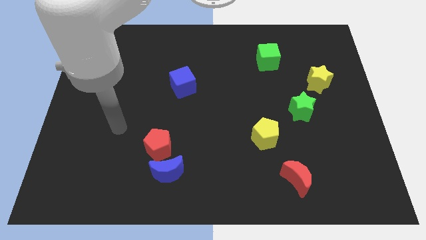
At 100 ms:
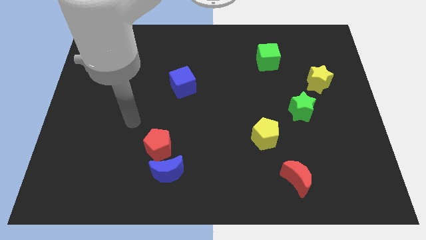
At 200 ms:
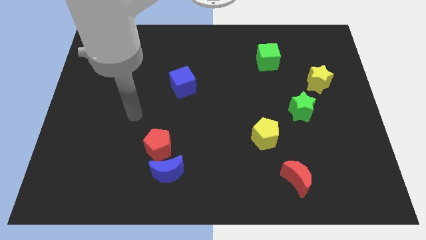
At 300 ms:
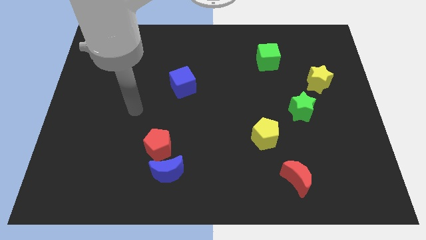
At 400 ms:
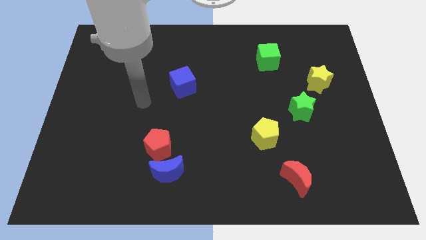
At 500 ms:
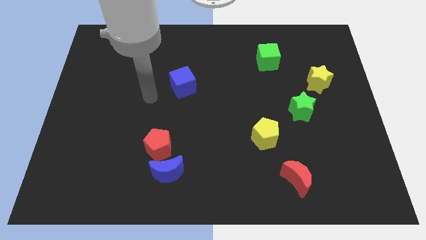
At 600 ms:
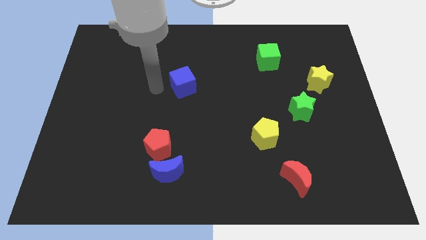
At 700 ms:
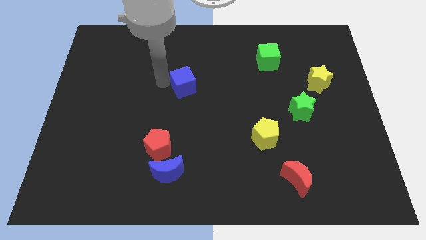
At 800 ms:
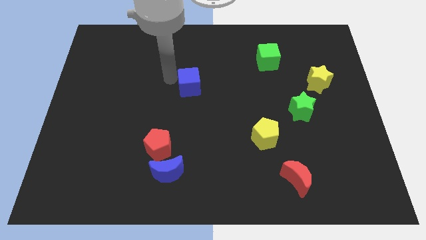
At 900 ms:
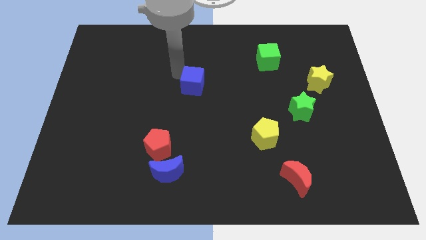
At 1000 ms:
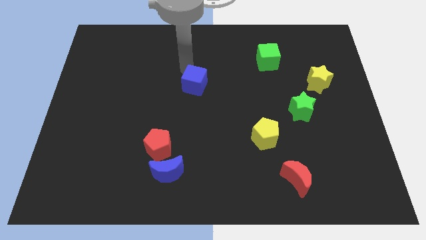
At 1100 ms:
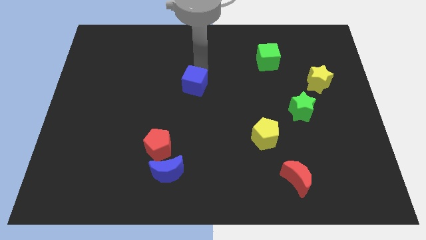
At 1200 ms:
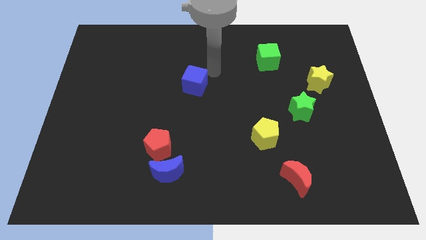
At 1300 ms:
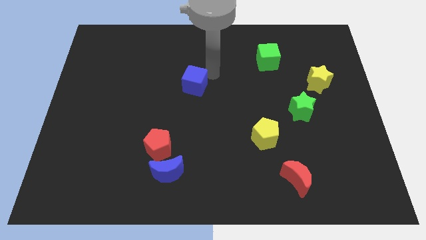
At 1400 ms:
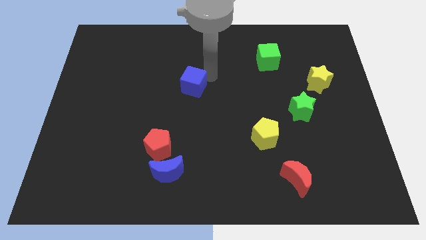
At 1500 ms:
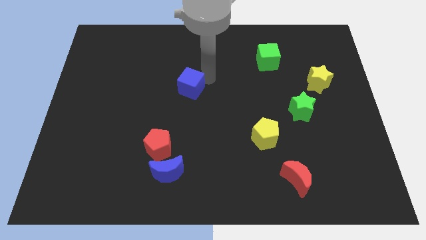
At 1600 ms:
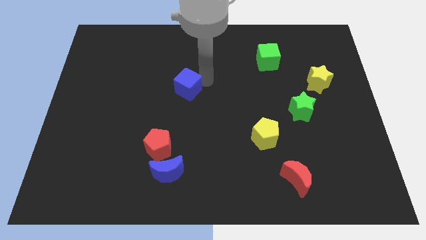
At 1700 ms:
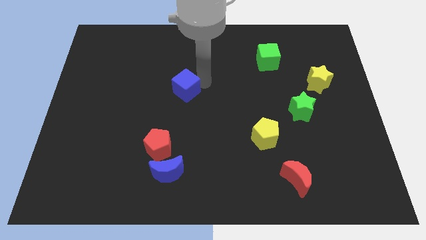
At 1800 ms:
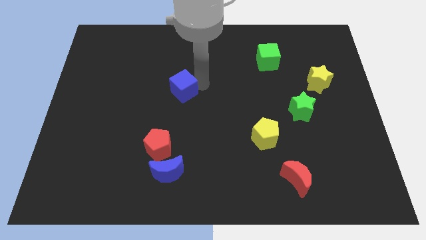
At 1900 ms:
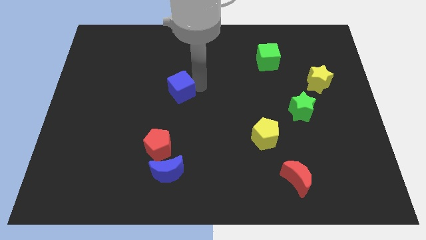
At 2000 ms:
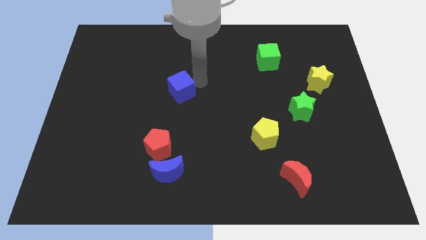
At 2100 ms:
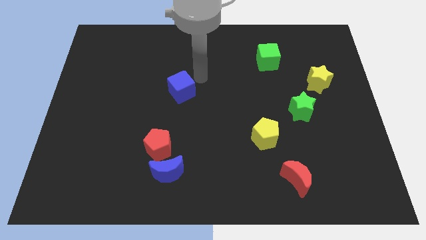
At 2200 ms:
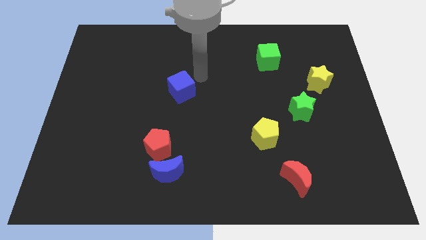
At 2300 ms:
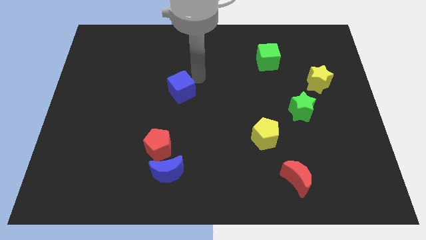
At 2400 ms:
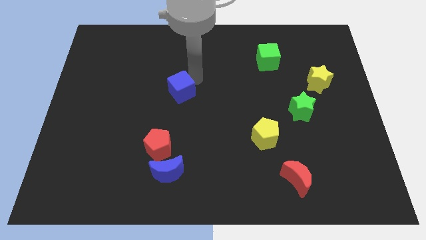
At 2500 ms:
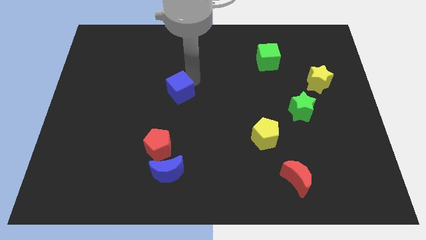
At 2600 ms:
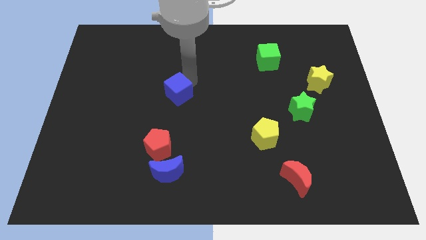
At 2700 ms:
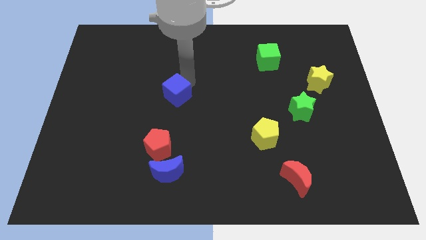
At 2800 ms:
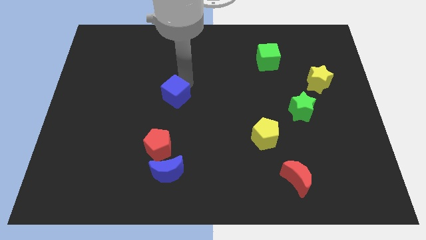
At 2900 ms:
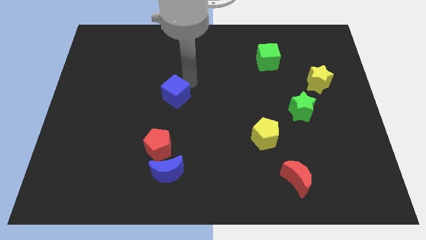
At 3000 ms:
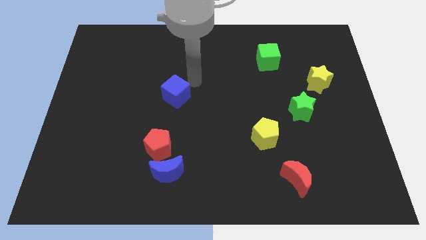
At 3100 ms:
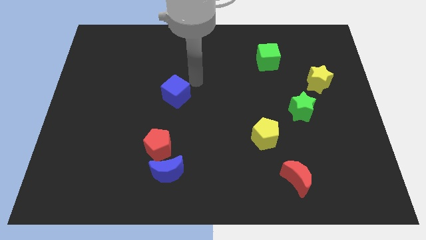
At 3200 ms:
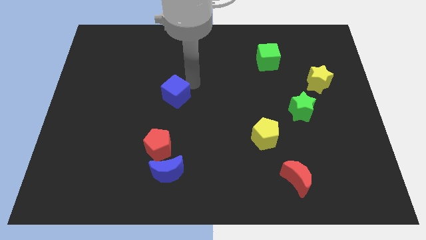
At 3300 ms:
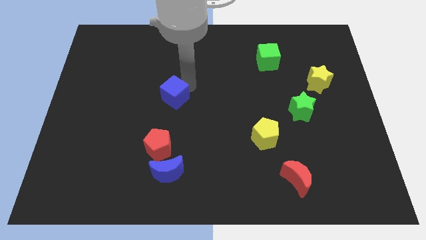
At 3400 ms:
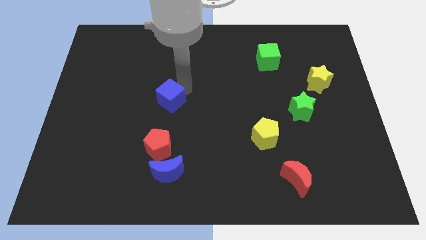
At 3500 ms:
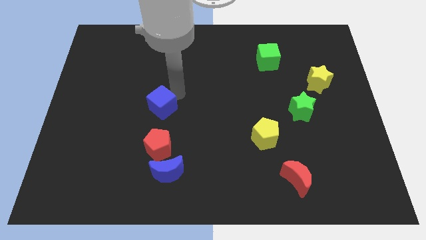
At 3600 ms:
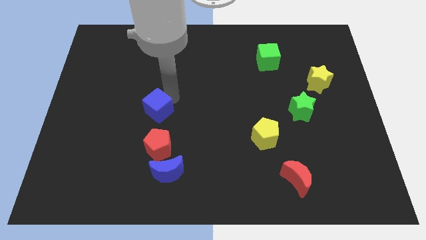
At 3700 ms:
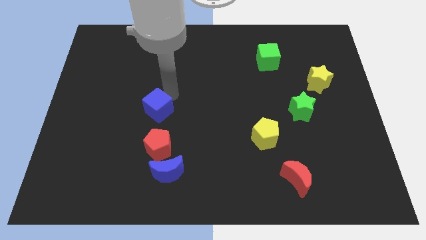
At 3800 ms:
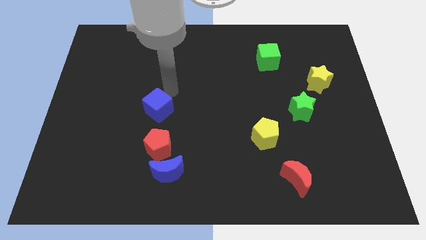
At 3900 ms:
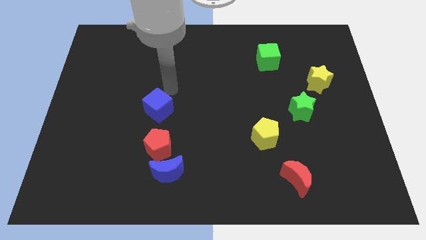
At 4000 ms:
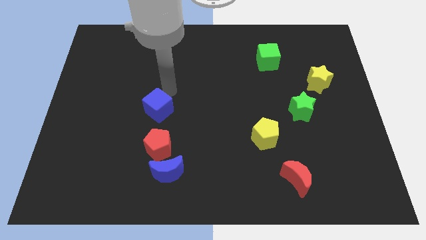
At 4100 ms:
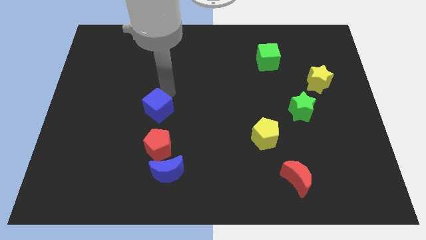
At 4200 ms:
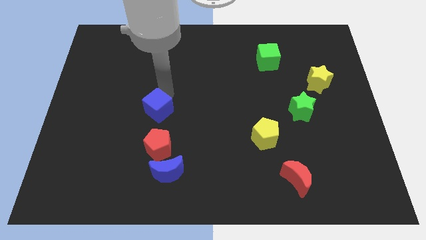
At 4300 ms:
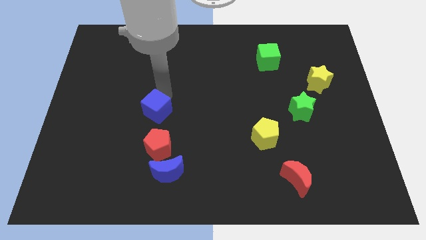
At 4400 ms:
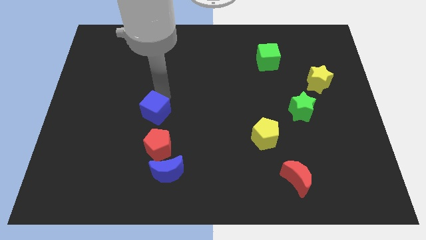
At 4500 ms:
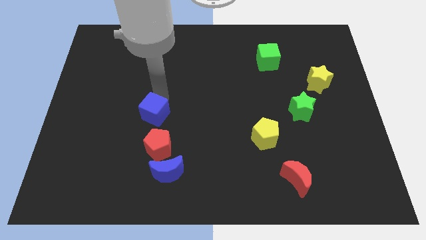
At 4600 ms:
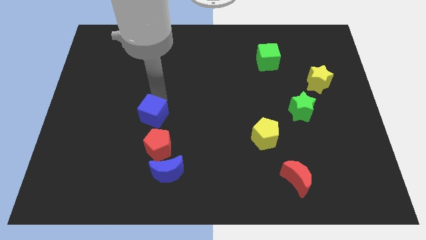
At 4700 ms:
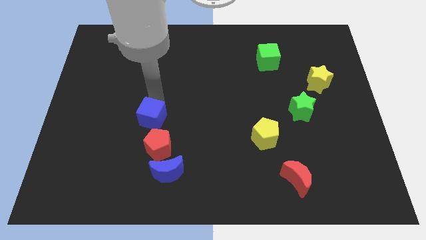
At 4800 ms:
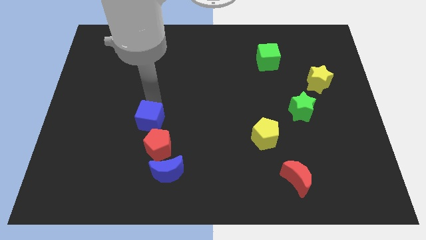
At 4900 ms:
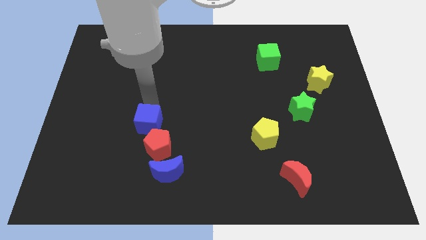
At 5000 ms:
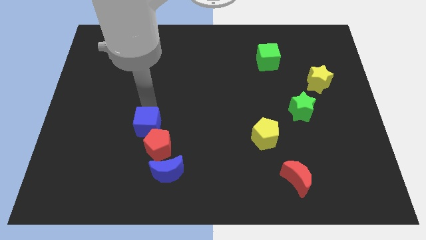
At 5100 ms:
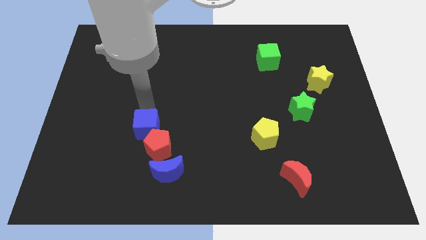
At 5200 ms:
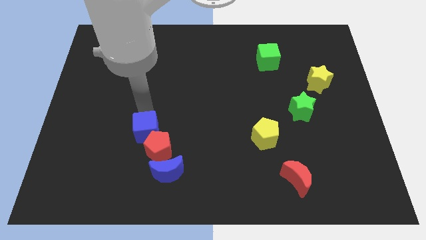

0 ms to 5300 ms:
put the blue cube to the top left side of the blue moon

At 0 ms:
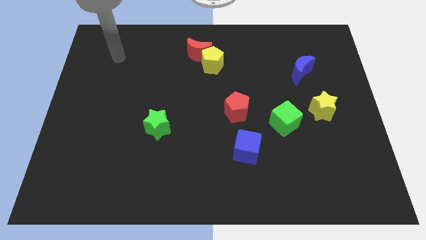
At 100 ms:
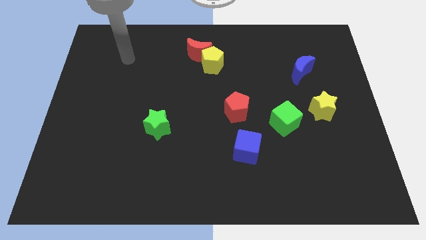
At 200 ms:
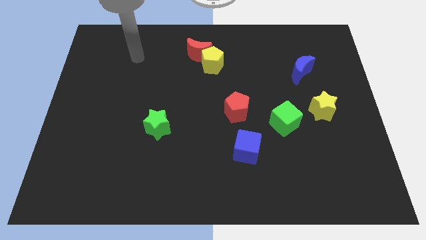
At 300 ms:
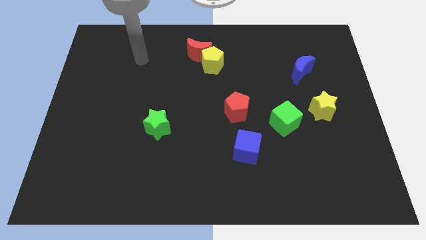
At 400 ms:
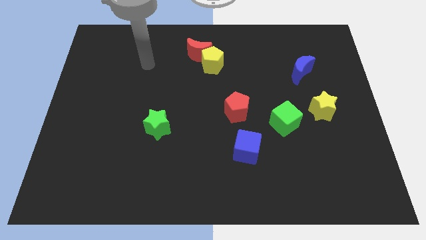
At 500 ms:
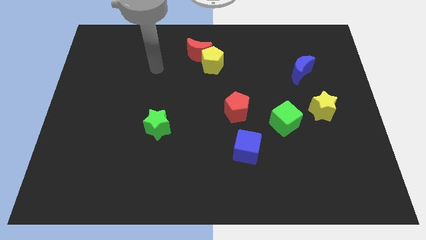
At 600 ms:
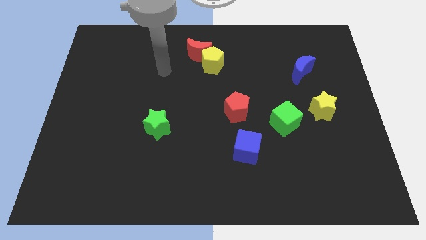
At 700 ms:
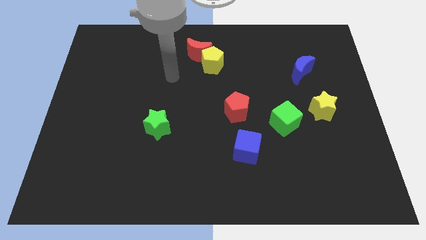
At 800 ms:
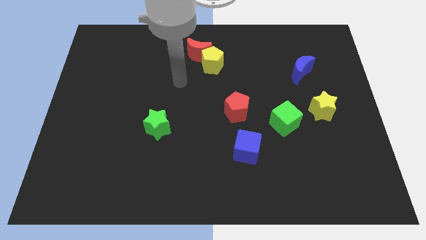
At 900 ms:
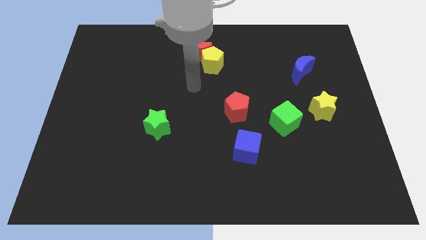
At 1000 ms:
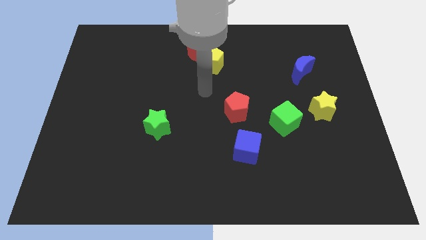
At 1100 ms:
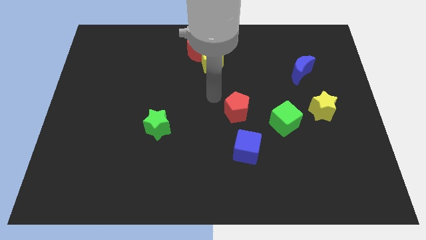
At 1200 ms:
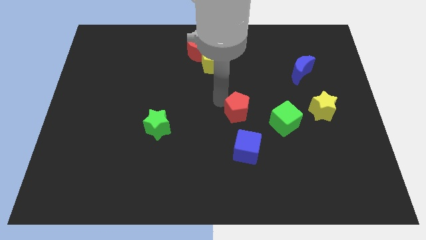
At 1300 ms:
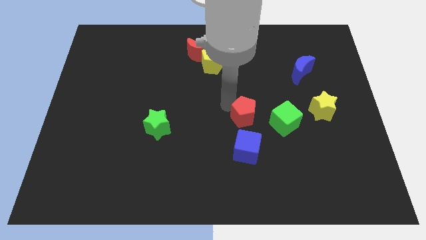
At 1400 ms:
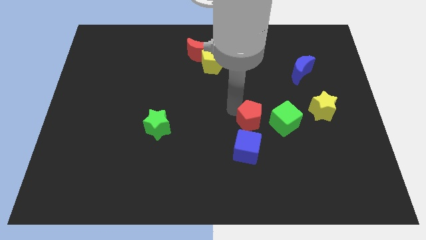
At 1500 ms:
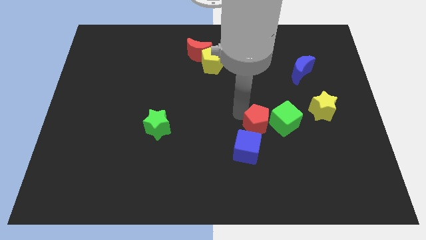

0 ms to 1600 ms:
move the red pentagon to the top right of the blue cube
